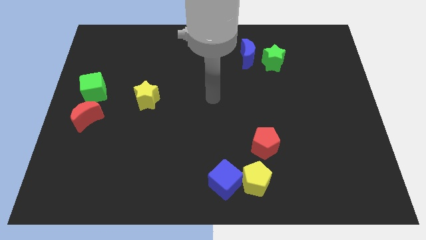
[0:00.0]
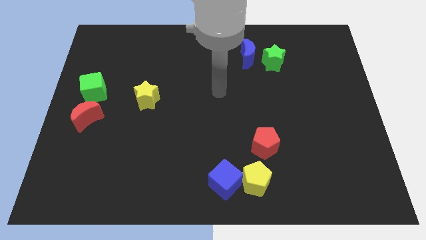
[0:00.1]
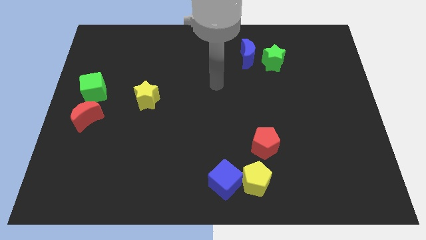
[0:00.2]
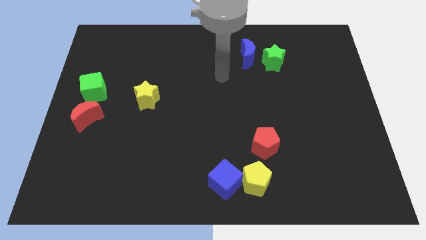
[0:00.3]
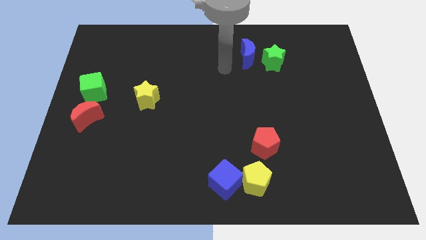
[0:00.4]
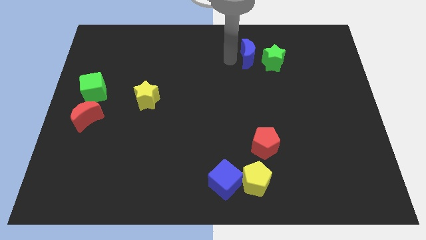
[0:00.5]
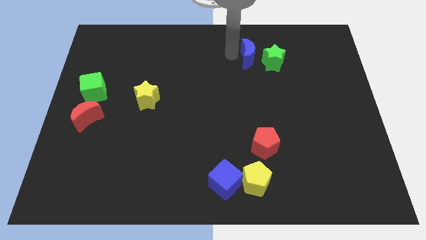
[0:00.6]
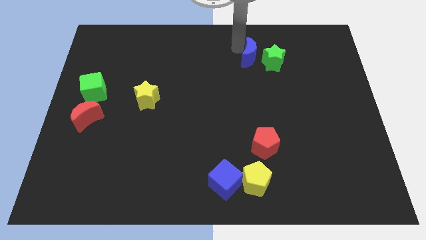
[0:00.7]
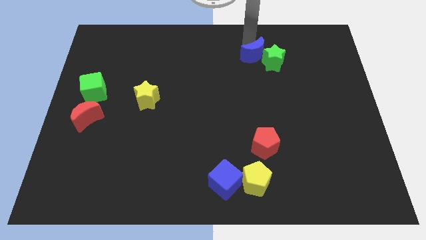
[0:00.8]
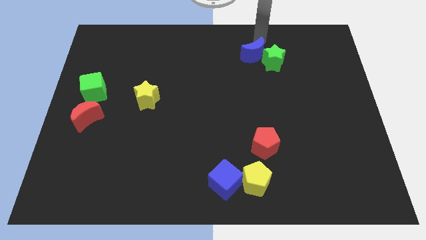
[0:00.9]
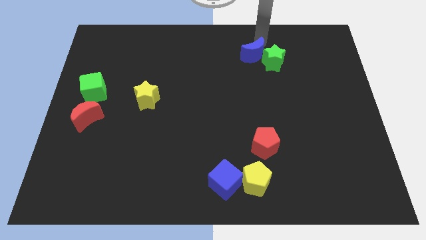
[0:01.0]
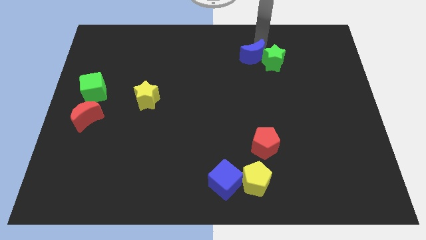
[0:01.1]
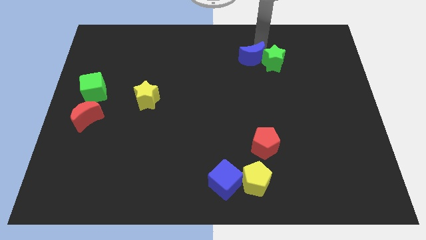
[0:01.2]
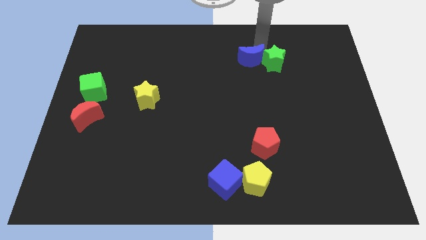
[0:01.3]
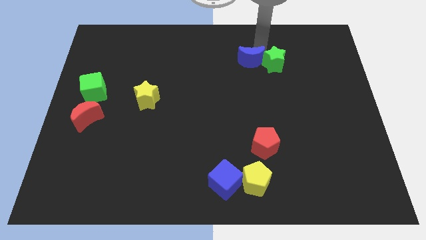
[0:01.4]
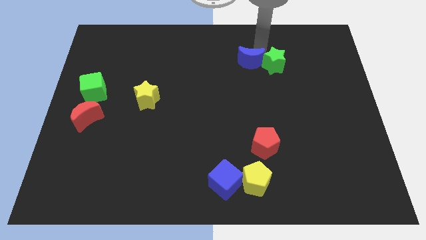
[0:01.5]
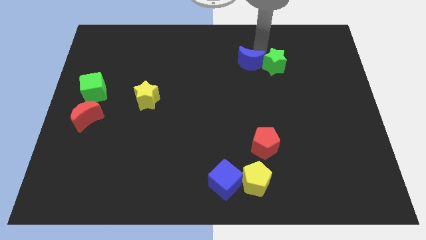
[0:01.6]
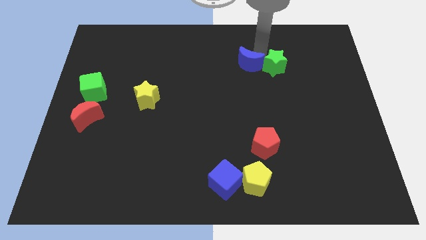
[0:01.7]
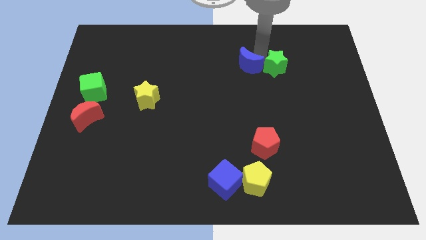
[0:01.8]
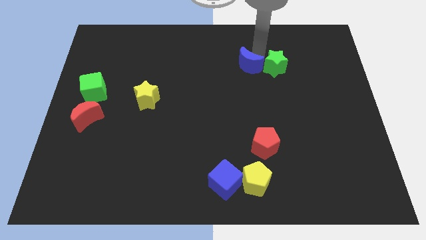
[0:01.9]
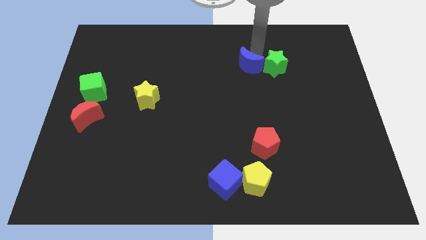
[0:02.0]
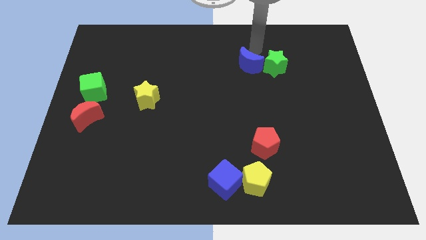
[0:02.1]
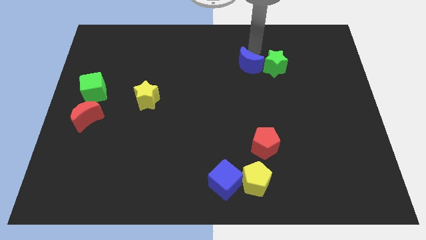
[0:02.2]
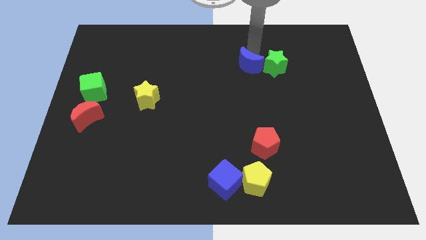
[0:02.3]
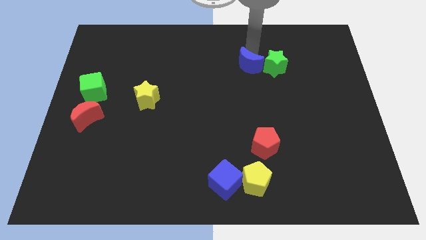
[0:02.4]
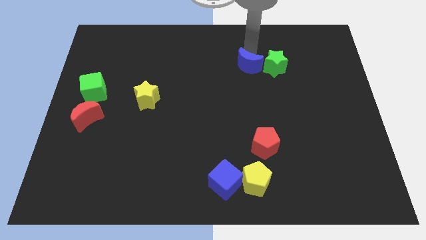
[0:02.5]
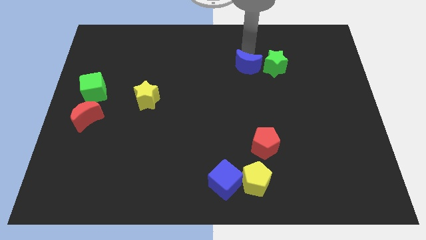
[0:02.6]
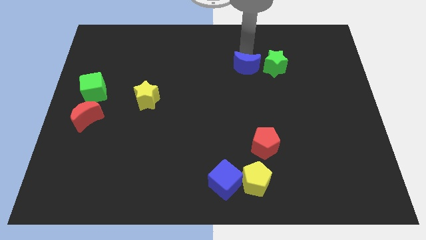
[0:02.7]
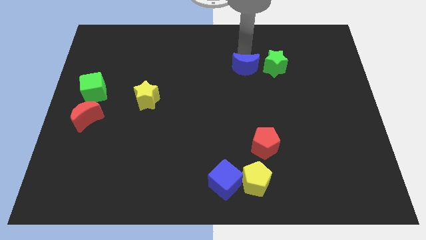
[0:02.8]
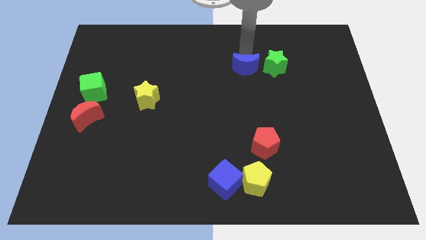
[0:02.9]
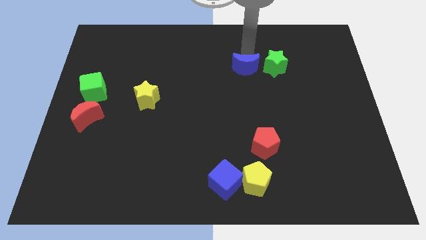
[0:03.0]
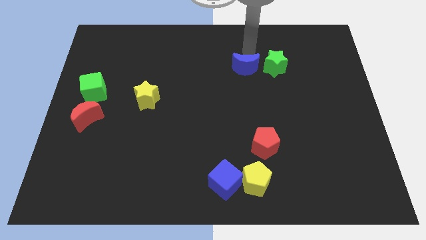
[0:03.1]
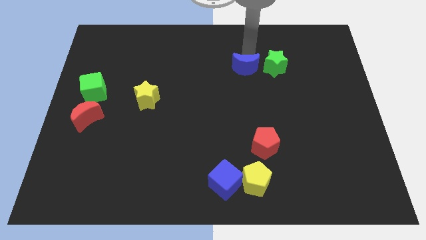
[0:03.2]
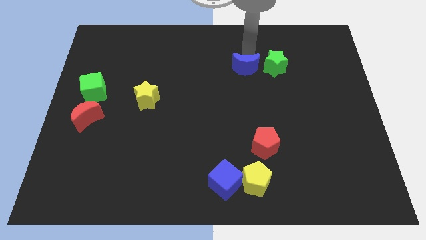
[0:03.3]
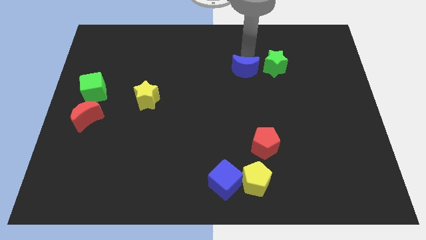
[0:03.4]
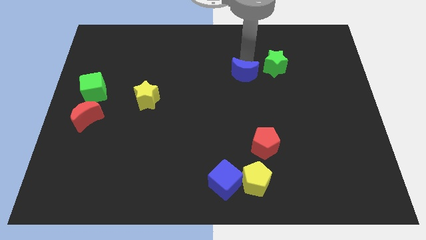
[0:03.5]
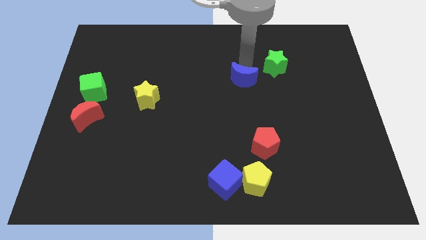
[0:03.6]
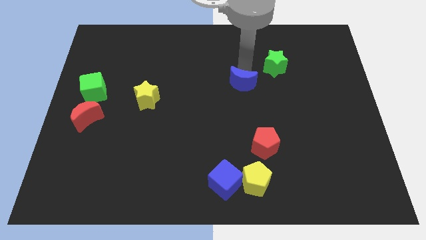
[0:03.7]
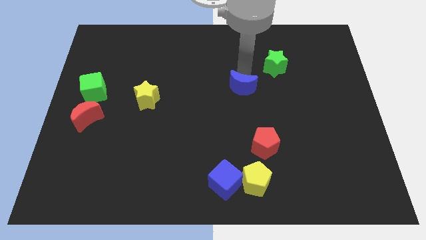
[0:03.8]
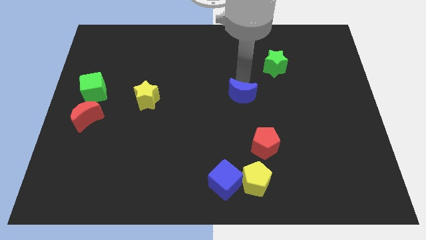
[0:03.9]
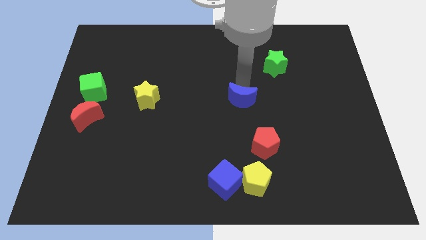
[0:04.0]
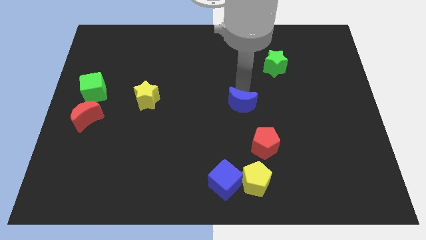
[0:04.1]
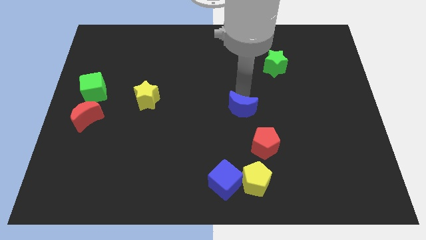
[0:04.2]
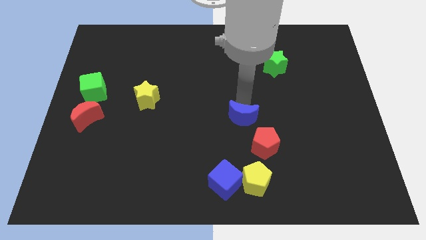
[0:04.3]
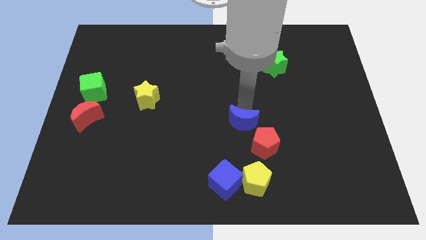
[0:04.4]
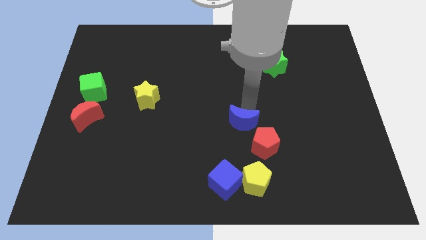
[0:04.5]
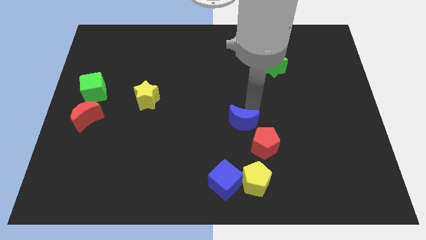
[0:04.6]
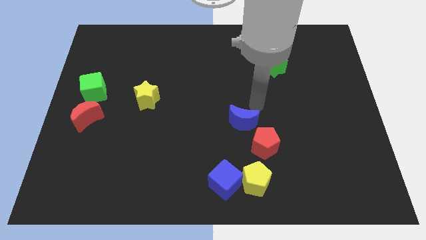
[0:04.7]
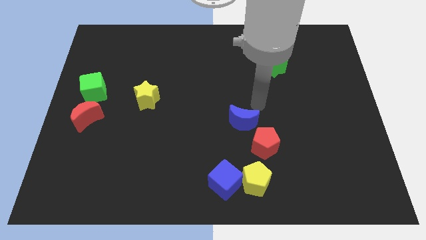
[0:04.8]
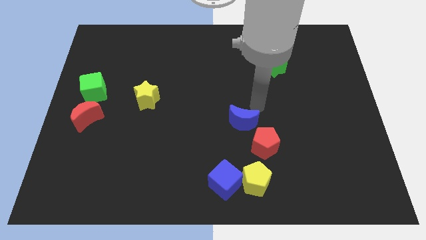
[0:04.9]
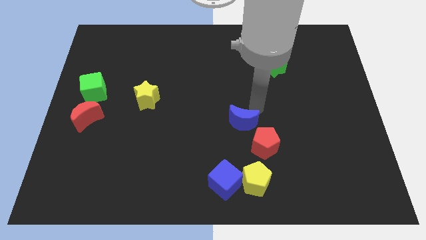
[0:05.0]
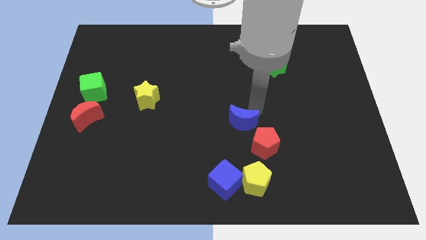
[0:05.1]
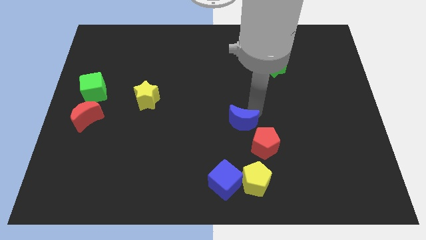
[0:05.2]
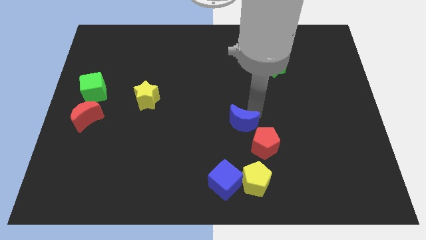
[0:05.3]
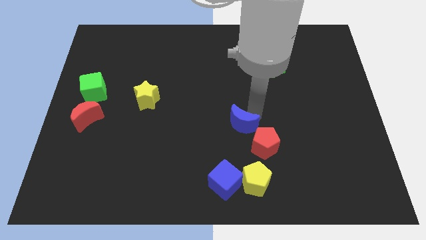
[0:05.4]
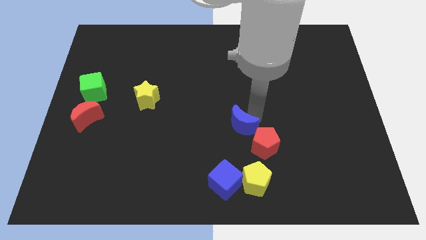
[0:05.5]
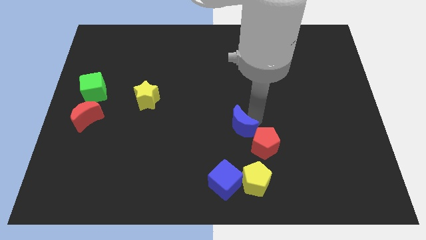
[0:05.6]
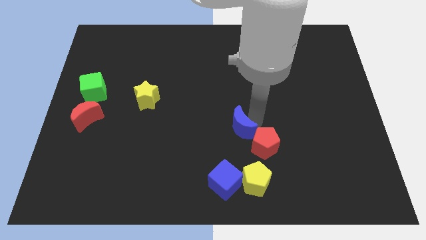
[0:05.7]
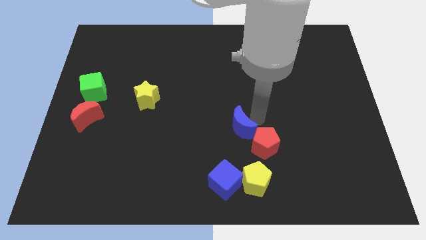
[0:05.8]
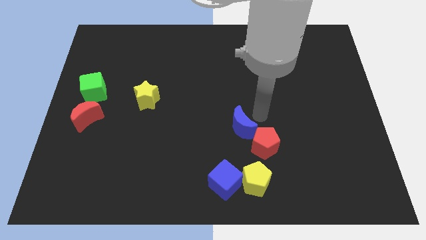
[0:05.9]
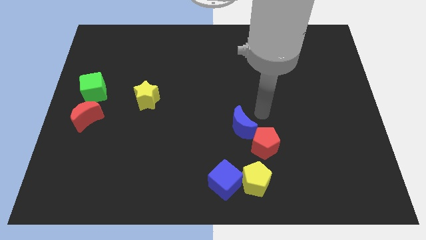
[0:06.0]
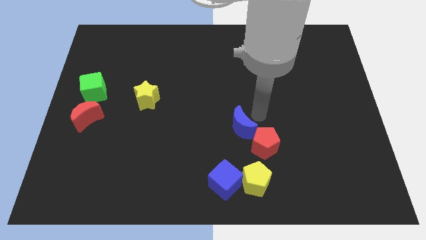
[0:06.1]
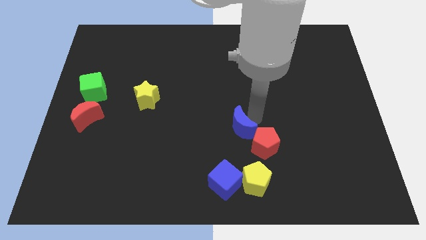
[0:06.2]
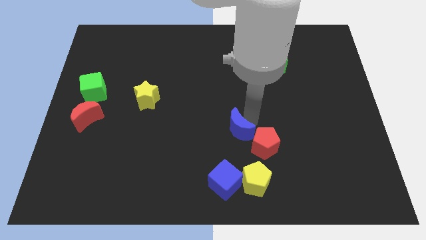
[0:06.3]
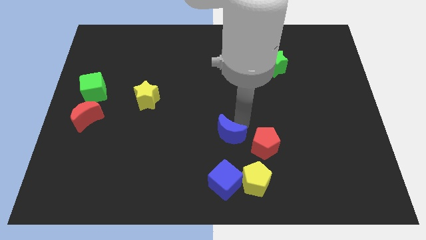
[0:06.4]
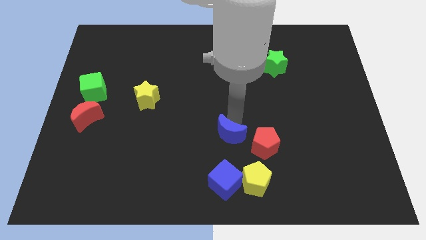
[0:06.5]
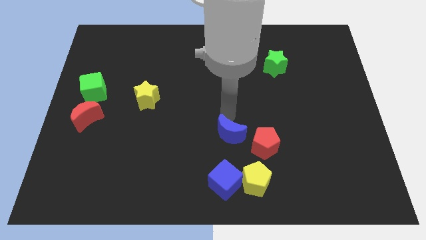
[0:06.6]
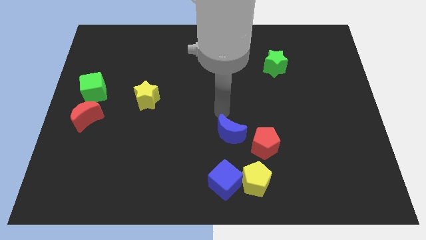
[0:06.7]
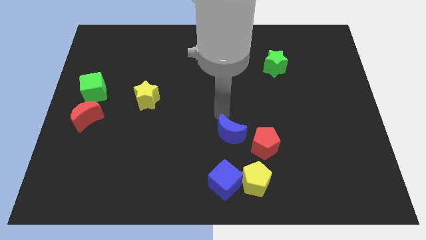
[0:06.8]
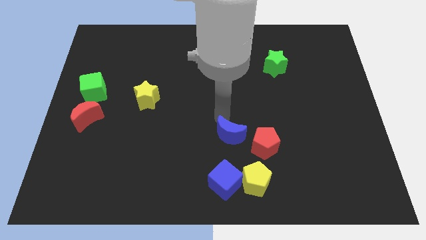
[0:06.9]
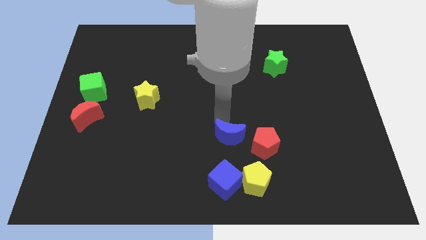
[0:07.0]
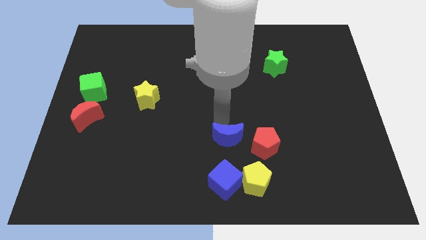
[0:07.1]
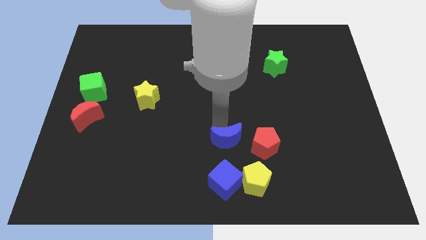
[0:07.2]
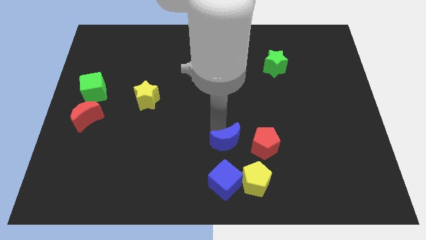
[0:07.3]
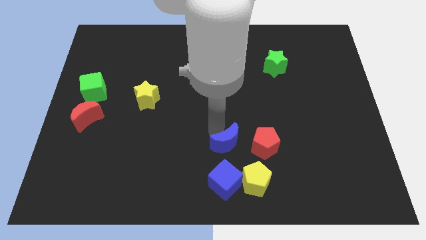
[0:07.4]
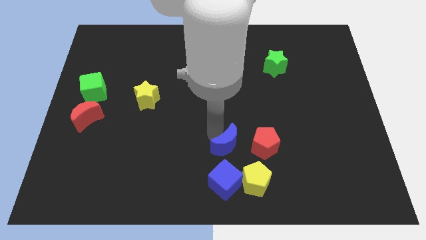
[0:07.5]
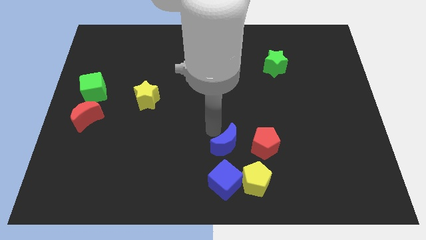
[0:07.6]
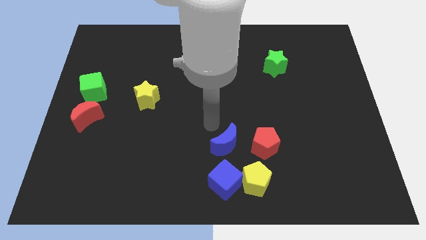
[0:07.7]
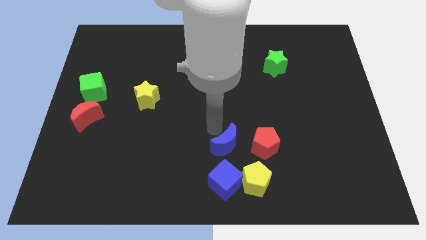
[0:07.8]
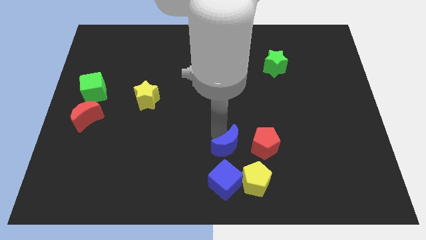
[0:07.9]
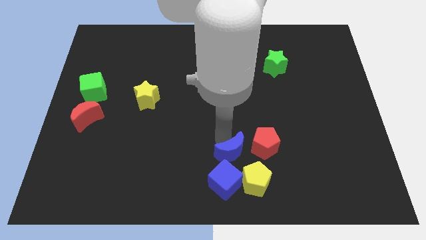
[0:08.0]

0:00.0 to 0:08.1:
slide the blue moon diagonally down and to the left of the red pentagon

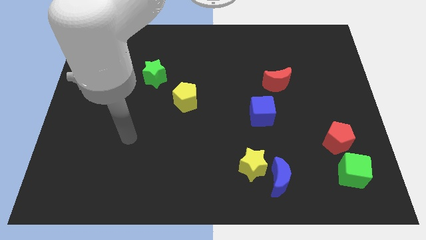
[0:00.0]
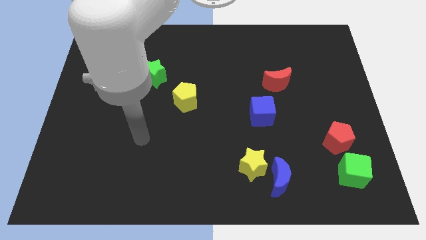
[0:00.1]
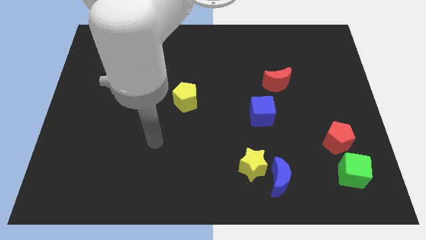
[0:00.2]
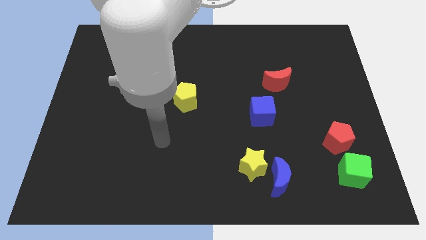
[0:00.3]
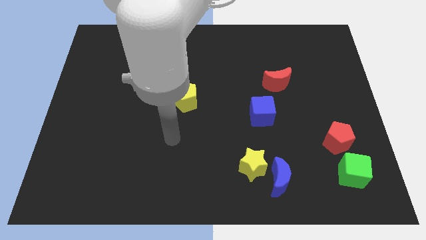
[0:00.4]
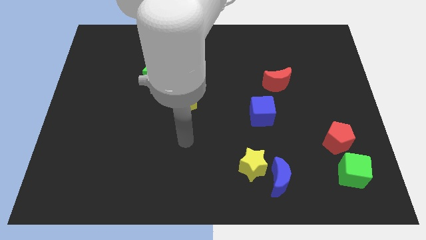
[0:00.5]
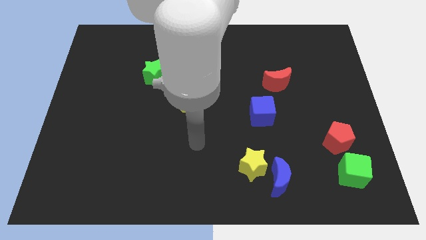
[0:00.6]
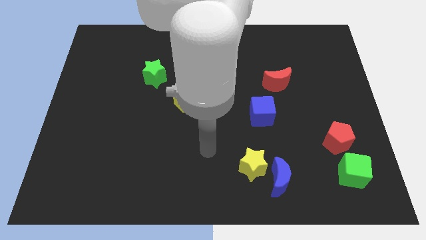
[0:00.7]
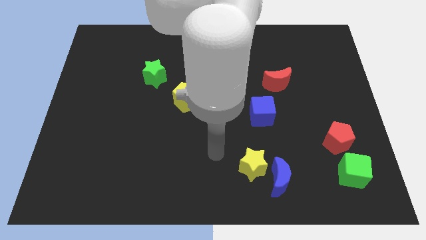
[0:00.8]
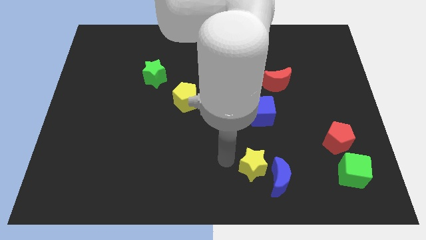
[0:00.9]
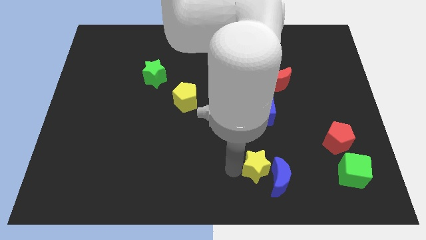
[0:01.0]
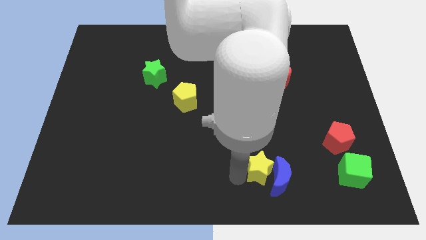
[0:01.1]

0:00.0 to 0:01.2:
put the blue moon to the top right of the yellow star
